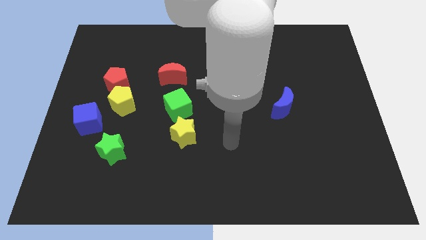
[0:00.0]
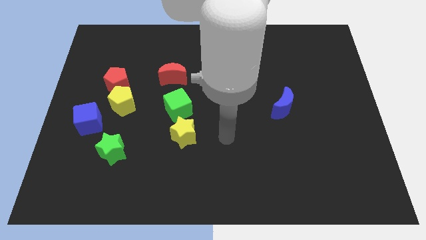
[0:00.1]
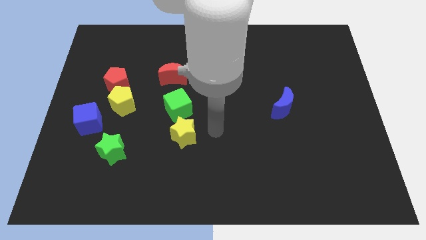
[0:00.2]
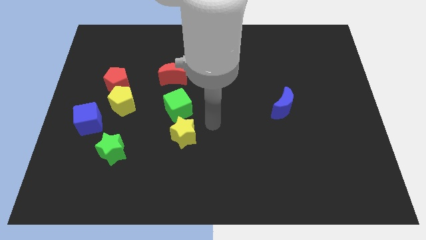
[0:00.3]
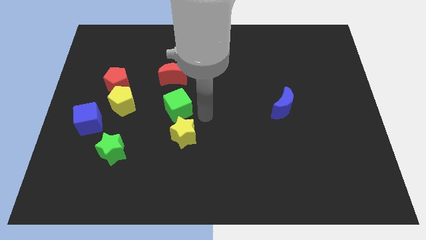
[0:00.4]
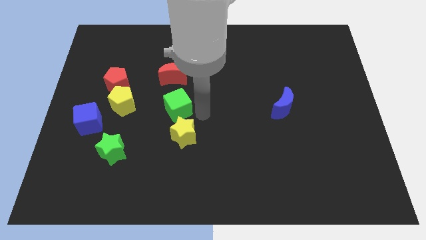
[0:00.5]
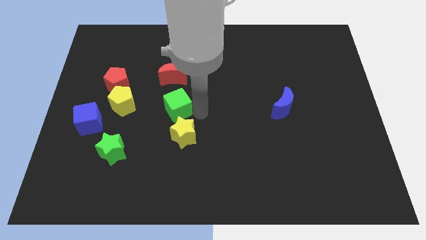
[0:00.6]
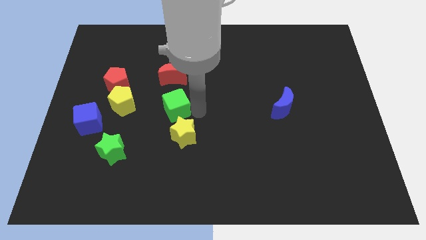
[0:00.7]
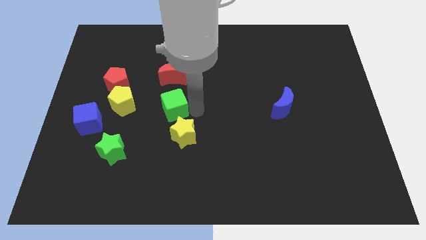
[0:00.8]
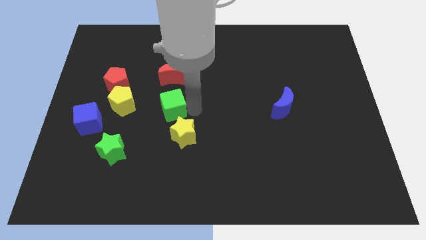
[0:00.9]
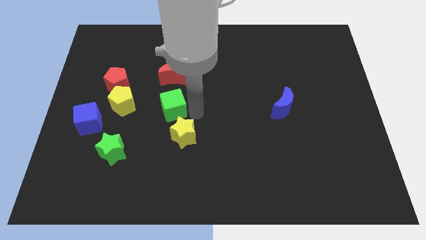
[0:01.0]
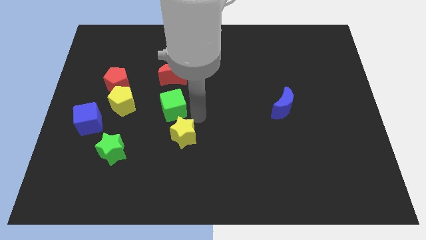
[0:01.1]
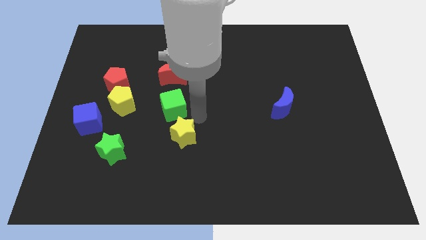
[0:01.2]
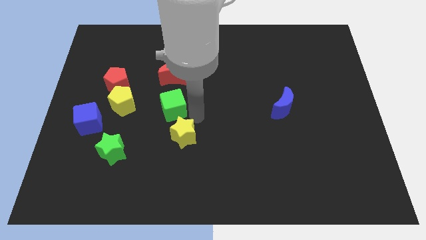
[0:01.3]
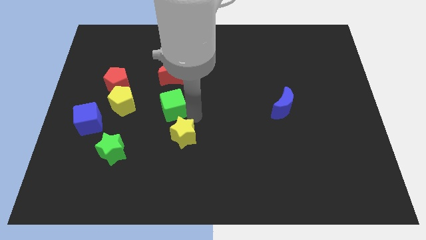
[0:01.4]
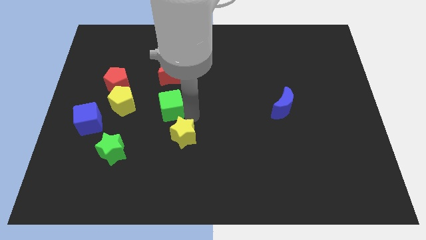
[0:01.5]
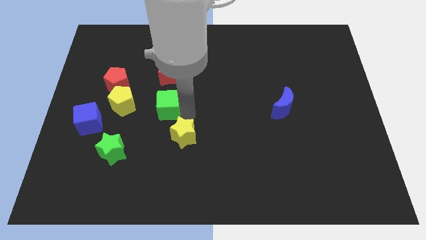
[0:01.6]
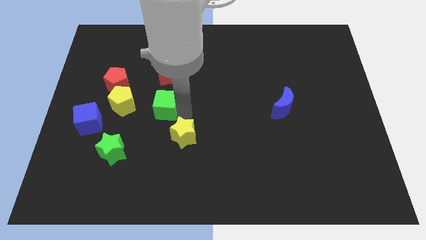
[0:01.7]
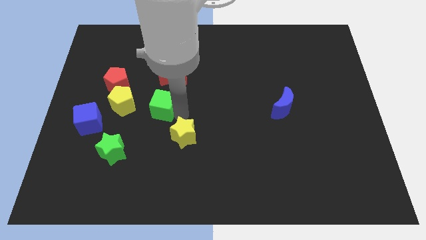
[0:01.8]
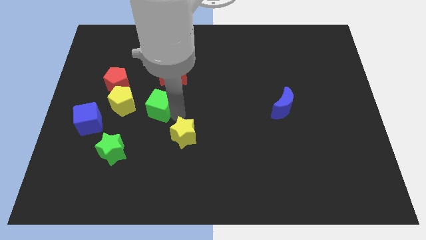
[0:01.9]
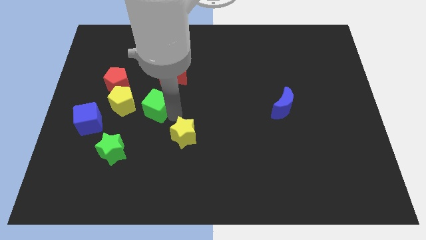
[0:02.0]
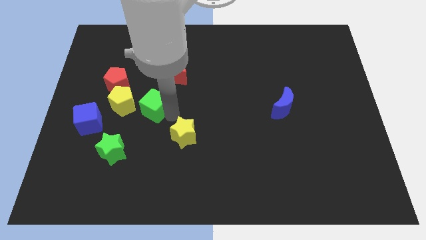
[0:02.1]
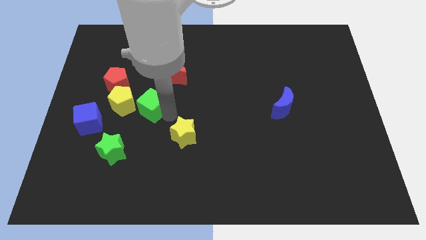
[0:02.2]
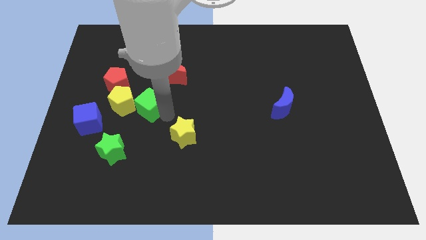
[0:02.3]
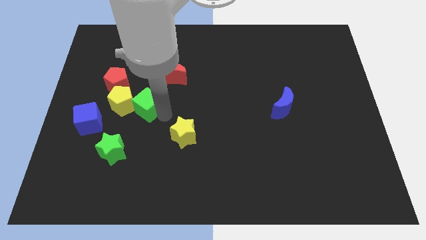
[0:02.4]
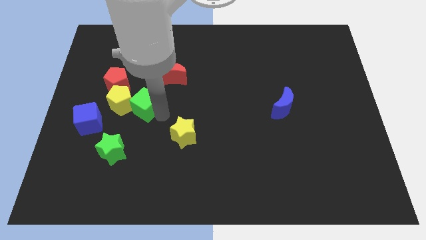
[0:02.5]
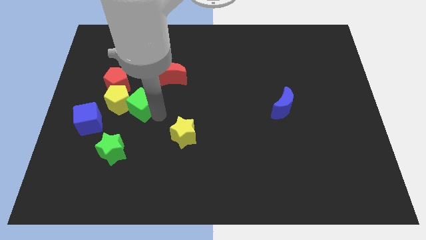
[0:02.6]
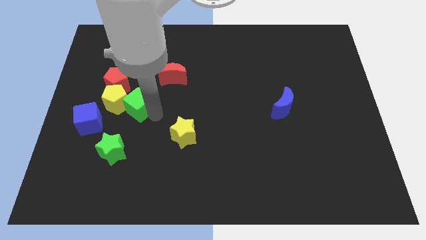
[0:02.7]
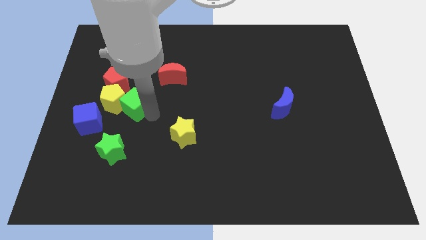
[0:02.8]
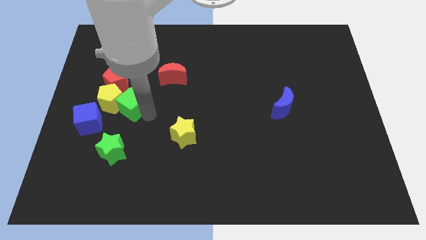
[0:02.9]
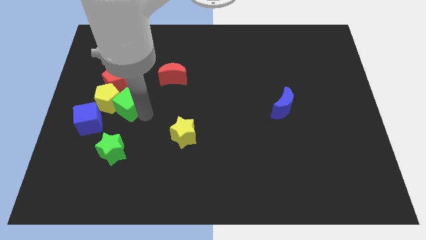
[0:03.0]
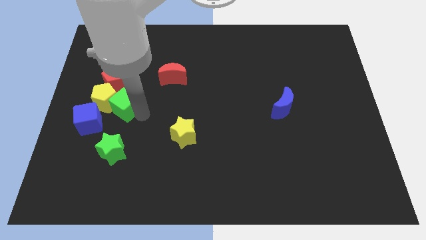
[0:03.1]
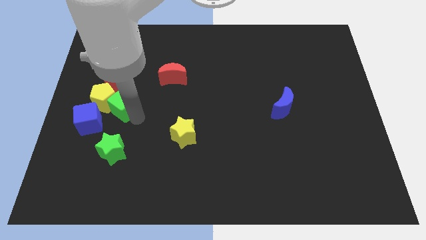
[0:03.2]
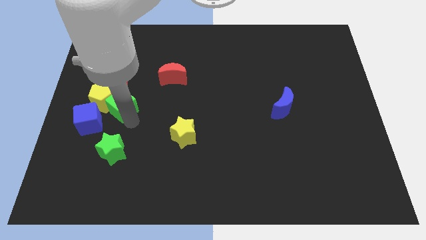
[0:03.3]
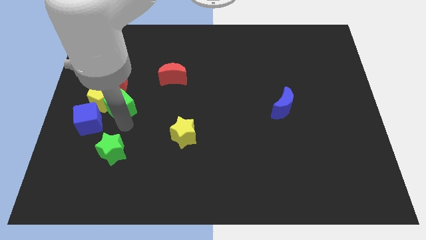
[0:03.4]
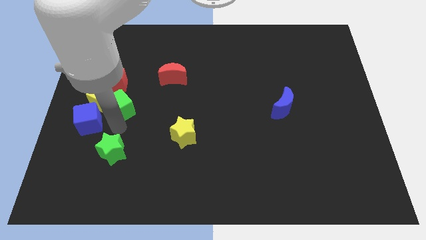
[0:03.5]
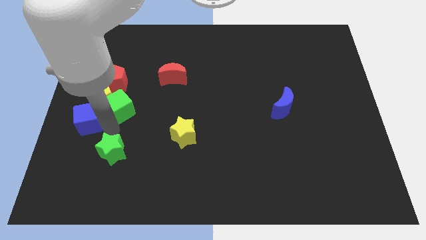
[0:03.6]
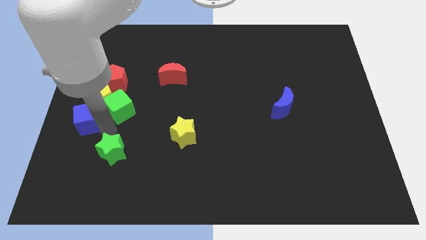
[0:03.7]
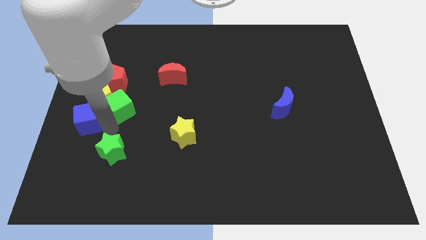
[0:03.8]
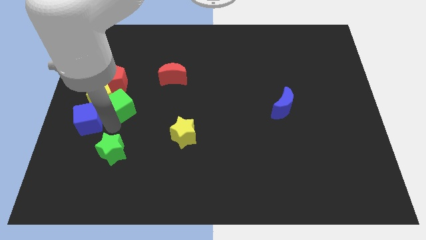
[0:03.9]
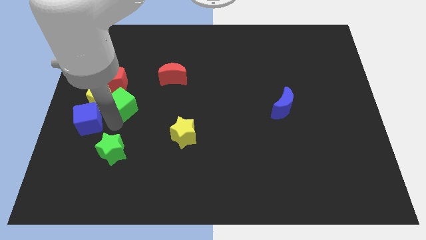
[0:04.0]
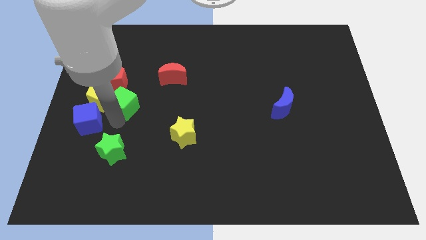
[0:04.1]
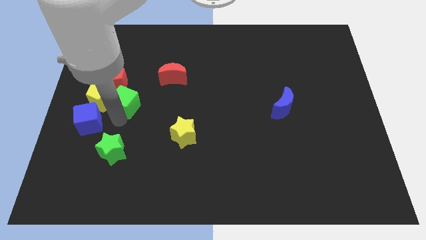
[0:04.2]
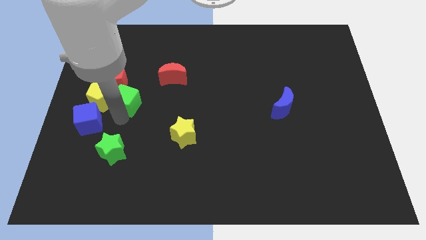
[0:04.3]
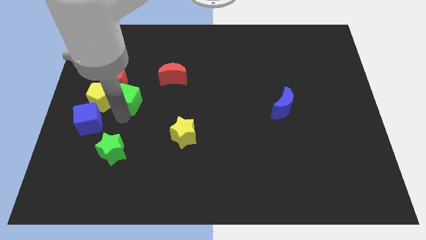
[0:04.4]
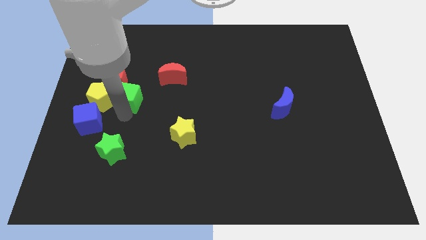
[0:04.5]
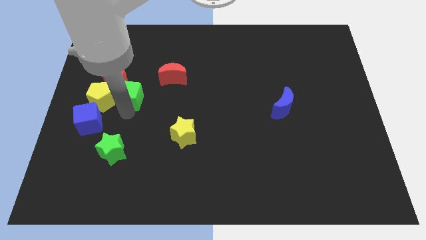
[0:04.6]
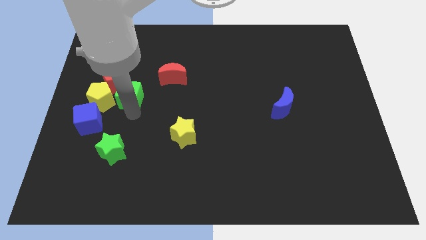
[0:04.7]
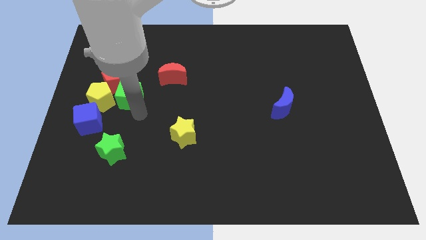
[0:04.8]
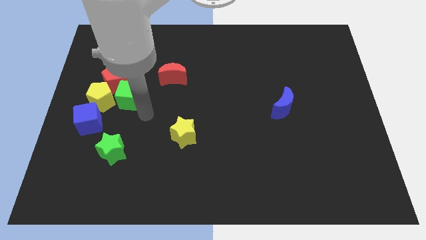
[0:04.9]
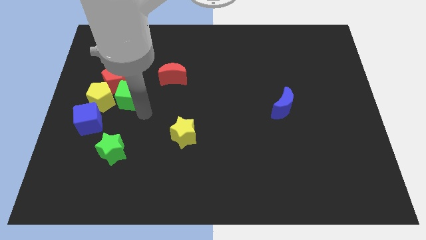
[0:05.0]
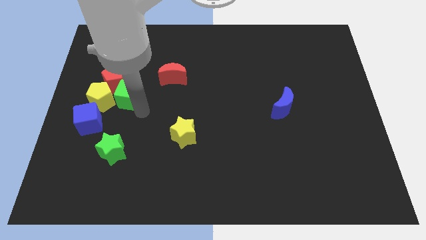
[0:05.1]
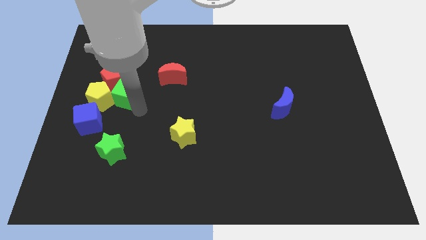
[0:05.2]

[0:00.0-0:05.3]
slide the green cube to the red pentagon

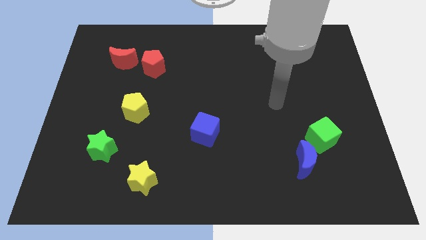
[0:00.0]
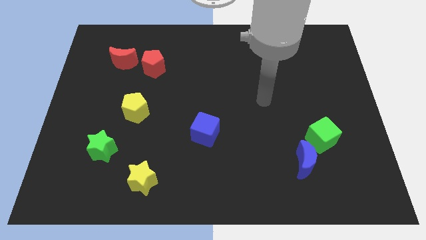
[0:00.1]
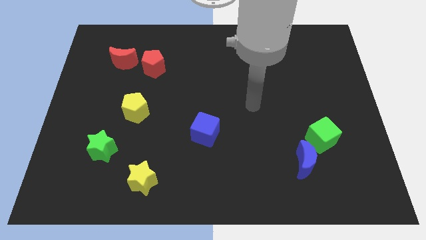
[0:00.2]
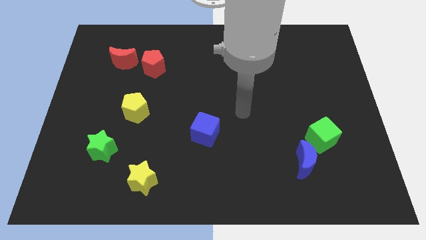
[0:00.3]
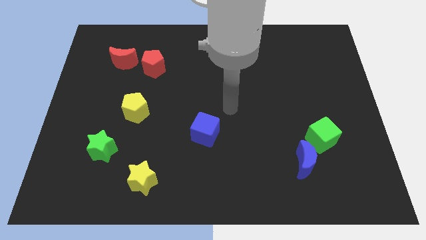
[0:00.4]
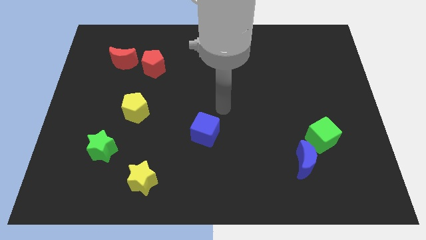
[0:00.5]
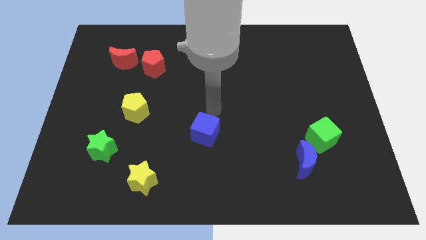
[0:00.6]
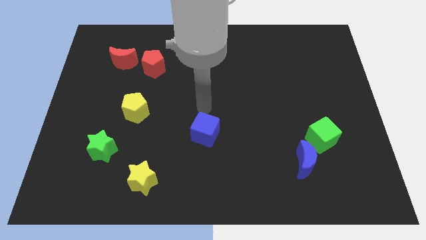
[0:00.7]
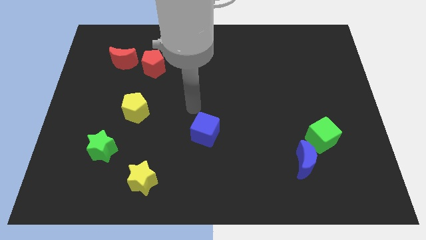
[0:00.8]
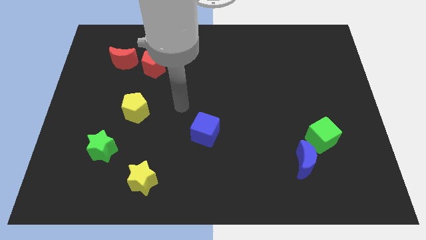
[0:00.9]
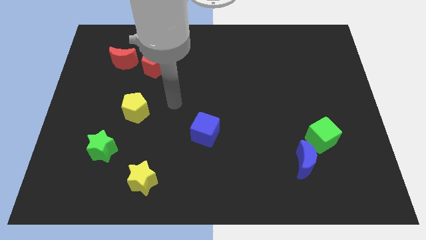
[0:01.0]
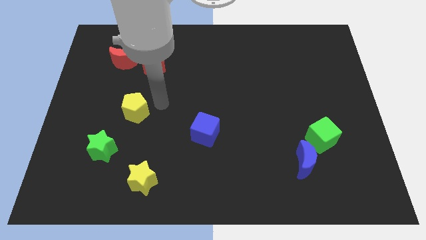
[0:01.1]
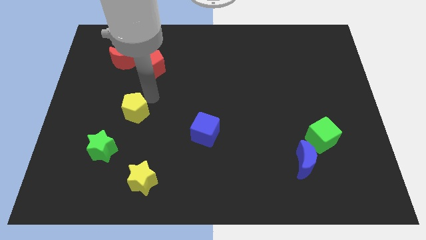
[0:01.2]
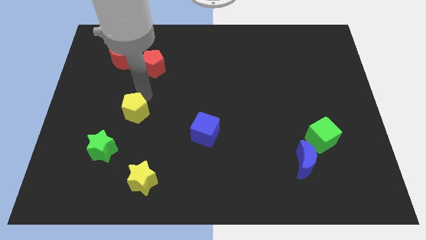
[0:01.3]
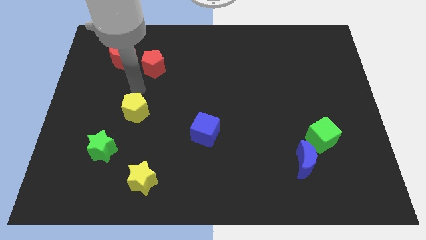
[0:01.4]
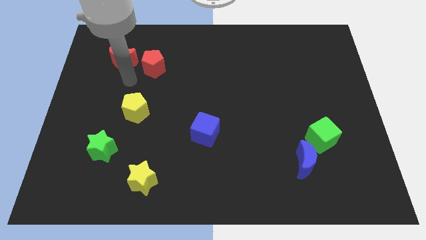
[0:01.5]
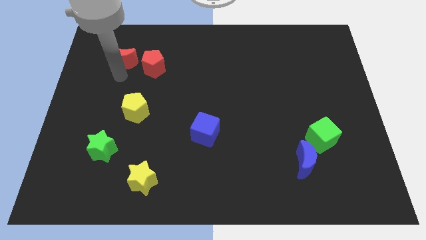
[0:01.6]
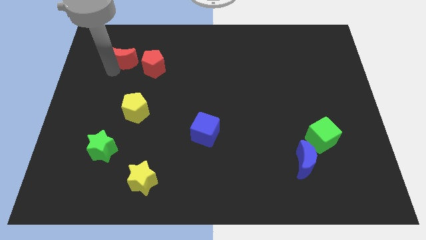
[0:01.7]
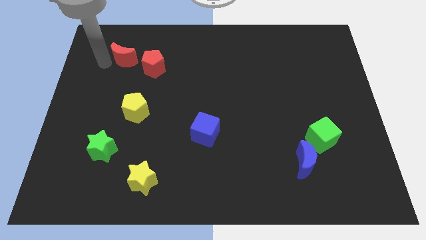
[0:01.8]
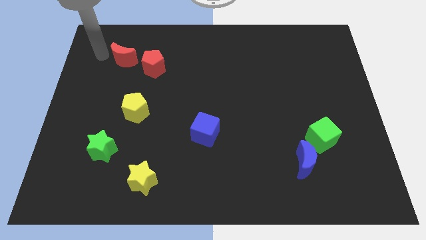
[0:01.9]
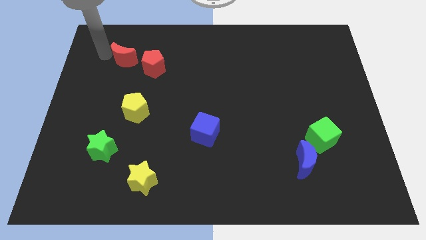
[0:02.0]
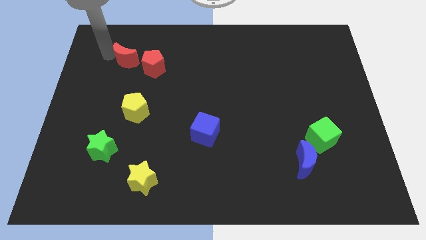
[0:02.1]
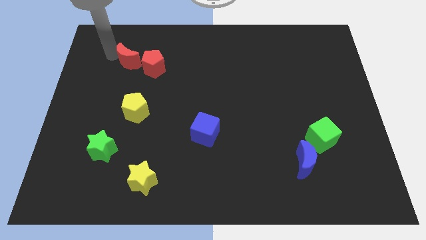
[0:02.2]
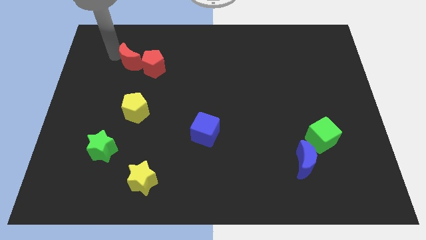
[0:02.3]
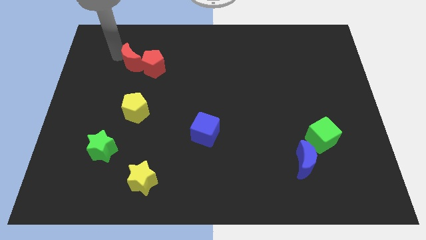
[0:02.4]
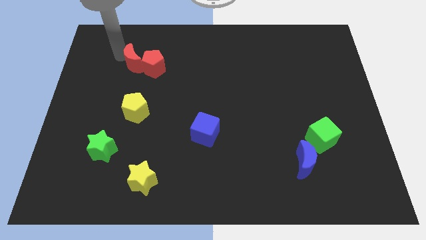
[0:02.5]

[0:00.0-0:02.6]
put the red moon to the red pentagon

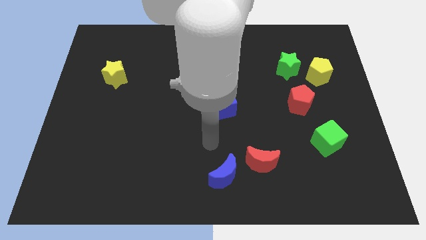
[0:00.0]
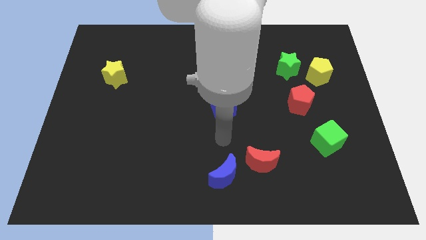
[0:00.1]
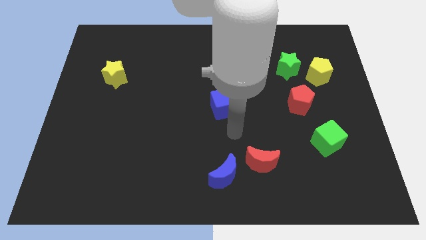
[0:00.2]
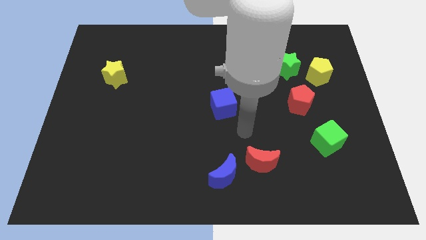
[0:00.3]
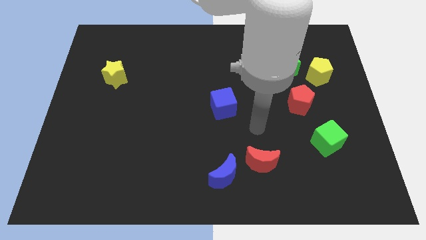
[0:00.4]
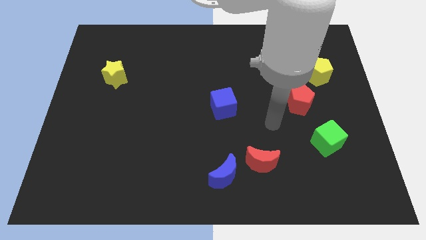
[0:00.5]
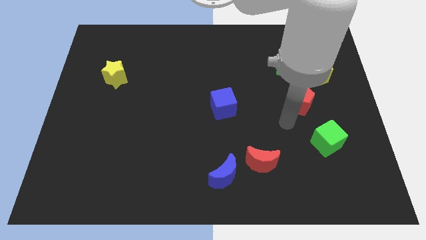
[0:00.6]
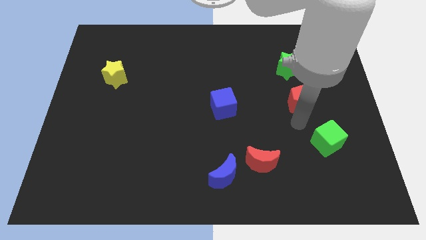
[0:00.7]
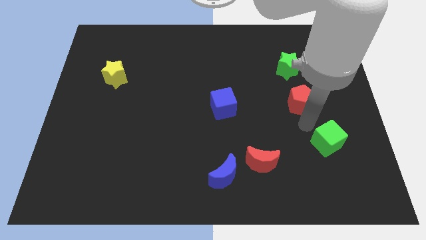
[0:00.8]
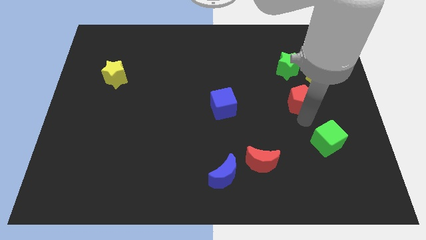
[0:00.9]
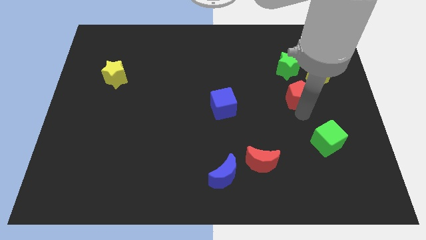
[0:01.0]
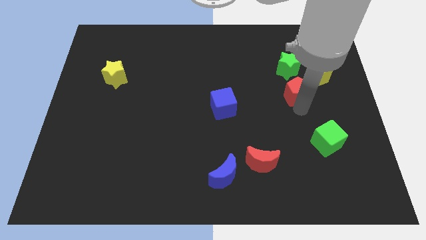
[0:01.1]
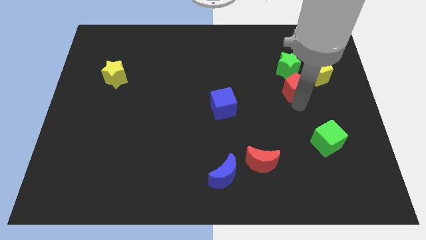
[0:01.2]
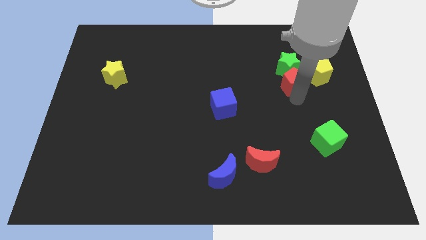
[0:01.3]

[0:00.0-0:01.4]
move the red pentagon close to the green star
